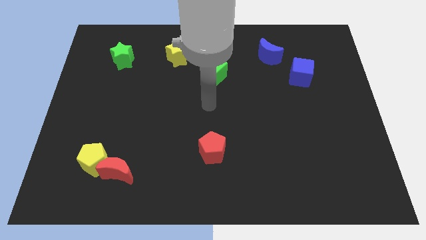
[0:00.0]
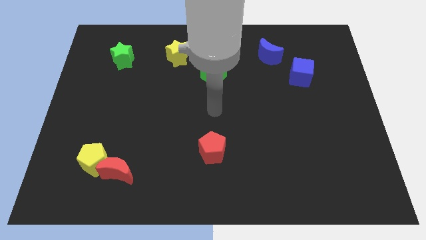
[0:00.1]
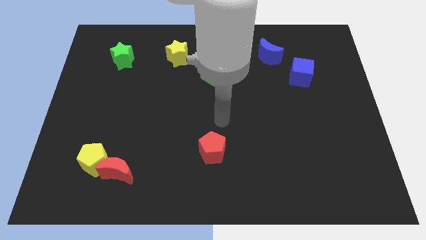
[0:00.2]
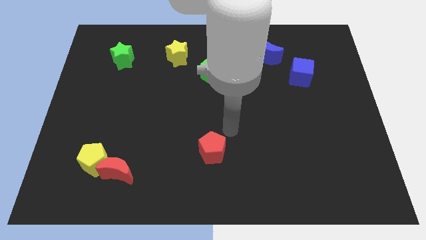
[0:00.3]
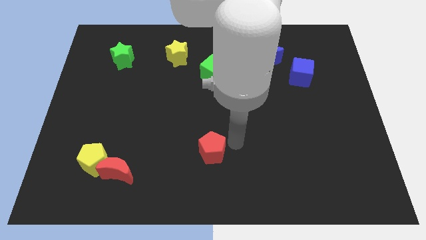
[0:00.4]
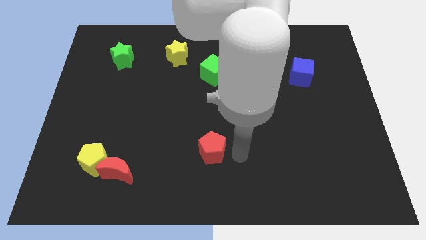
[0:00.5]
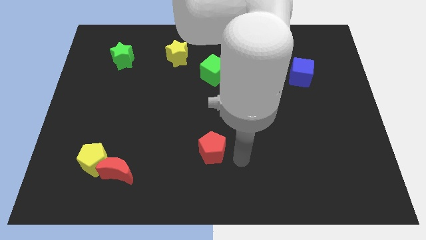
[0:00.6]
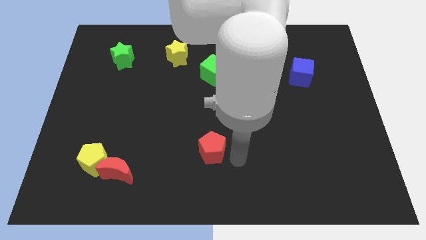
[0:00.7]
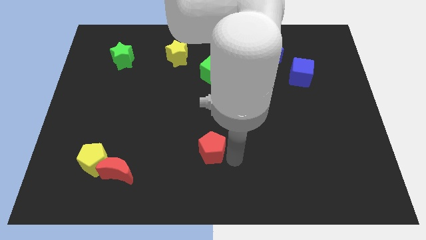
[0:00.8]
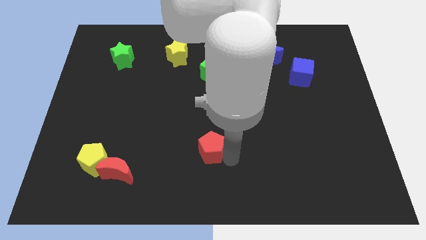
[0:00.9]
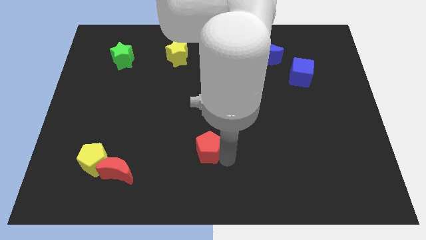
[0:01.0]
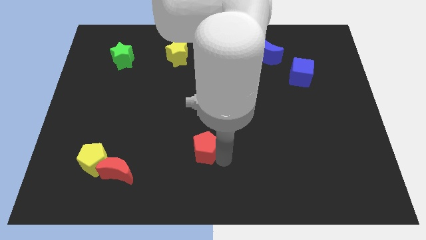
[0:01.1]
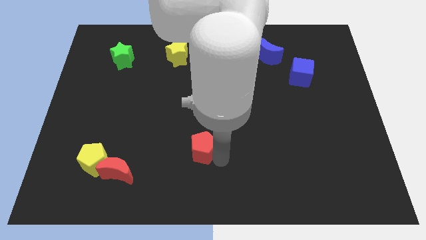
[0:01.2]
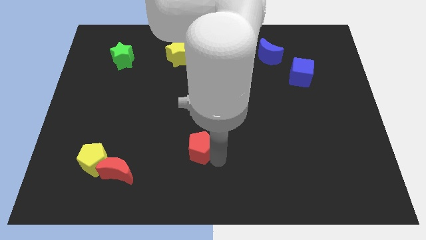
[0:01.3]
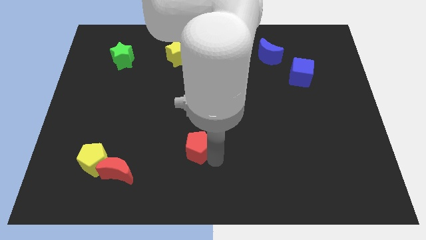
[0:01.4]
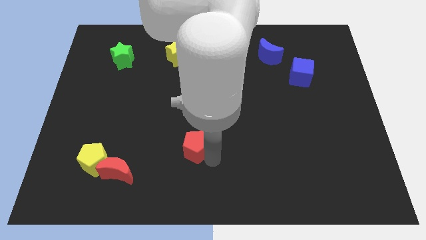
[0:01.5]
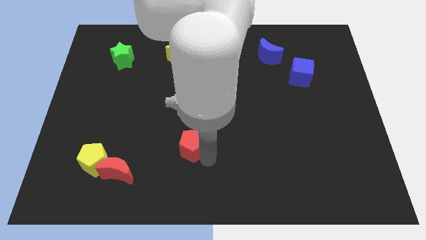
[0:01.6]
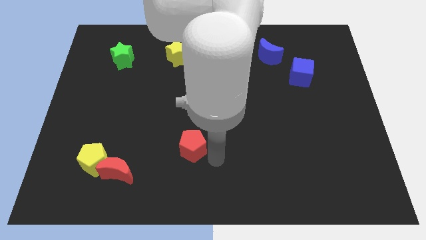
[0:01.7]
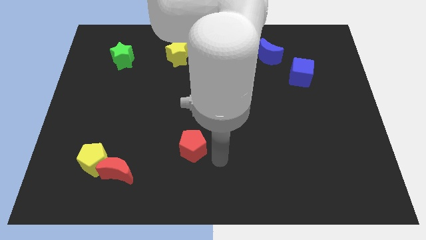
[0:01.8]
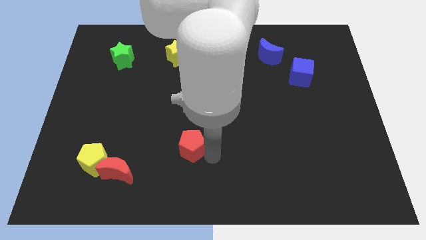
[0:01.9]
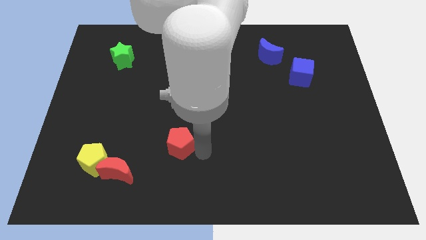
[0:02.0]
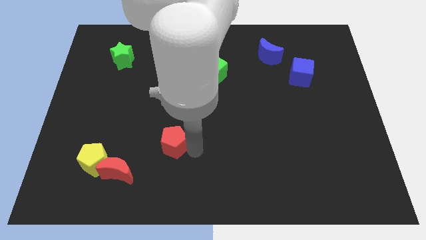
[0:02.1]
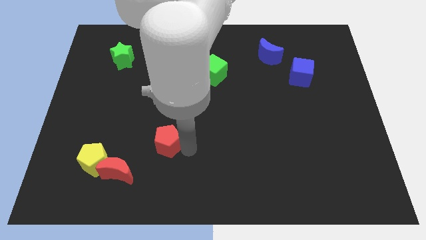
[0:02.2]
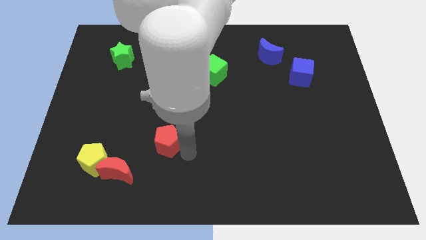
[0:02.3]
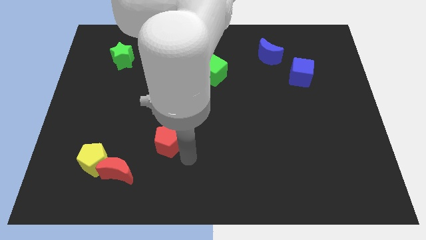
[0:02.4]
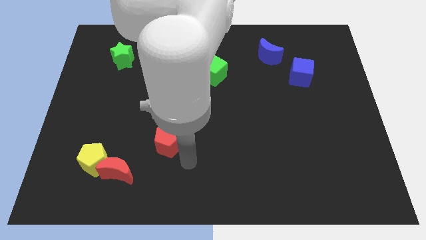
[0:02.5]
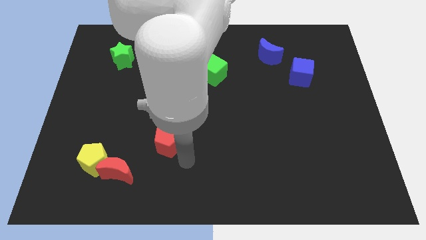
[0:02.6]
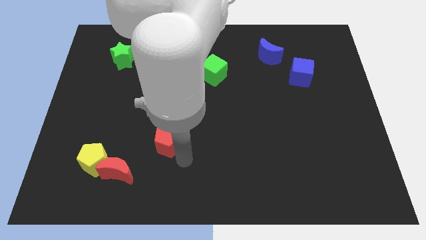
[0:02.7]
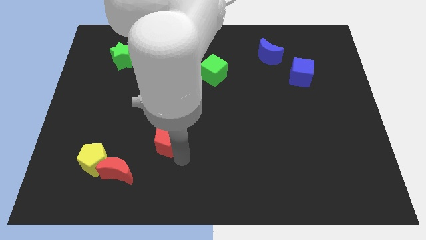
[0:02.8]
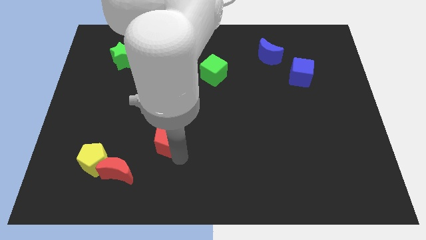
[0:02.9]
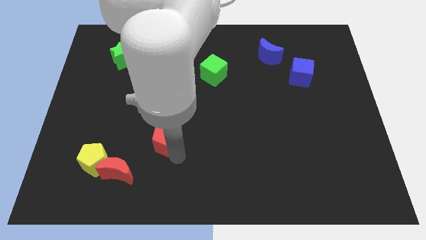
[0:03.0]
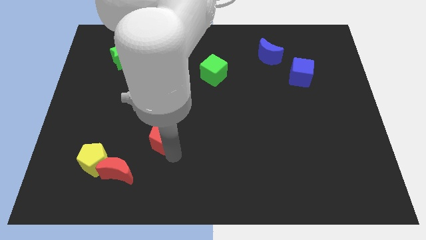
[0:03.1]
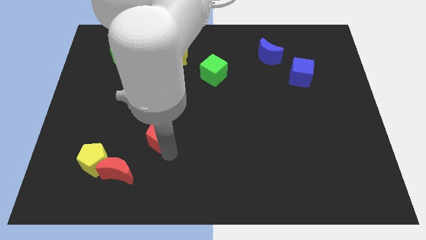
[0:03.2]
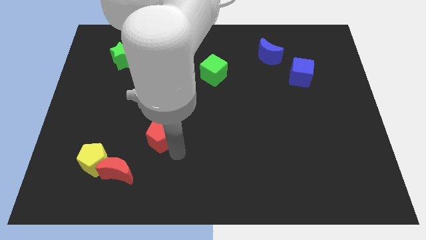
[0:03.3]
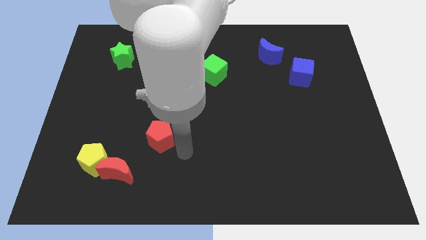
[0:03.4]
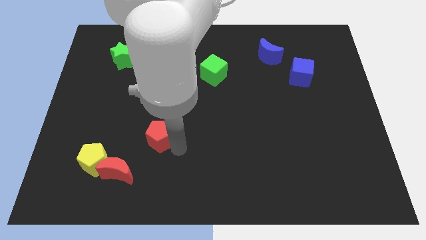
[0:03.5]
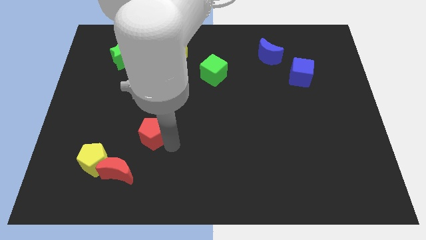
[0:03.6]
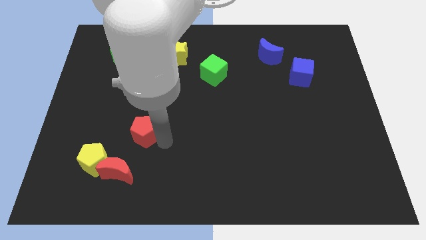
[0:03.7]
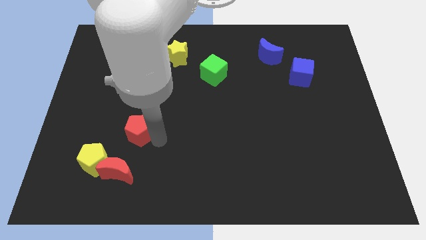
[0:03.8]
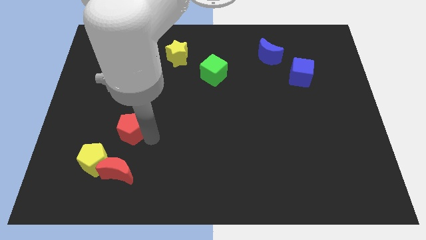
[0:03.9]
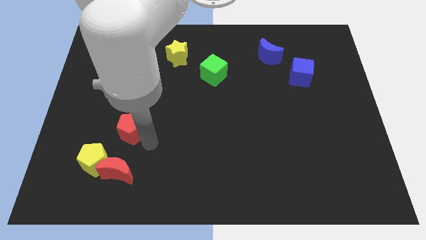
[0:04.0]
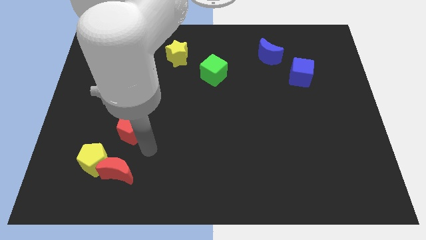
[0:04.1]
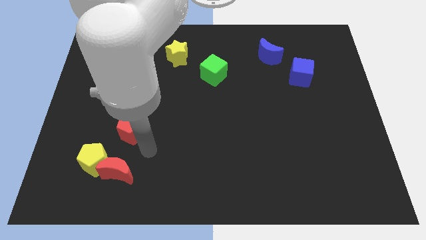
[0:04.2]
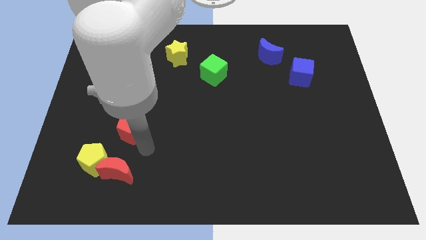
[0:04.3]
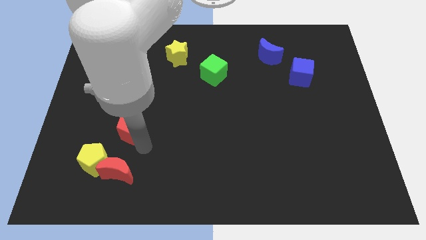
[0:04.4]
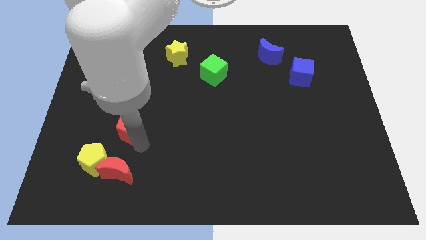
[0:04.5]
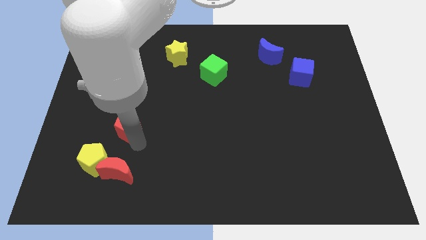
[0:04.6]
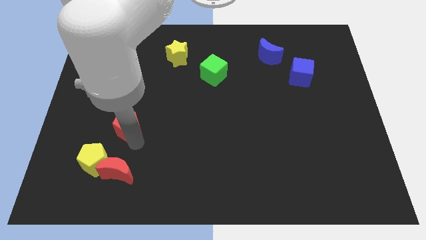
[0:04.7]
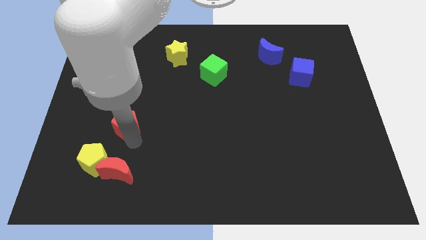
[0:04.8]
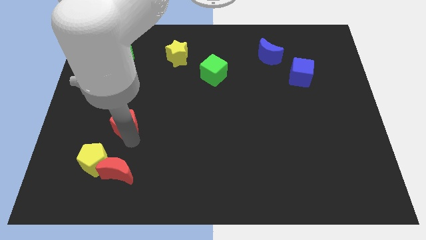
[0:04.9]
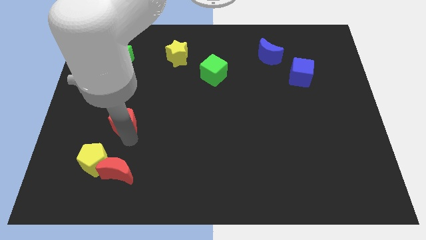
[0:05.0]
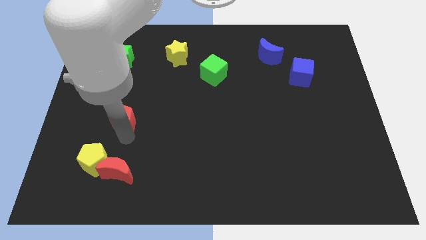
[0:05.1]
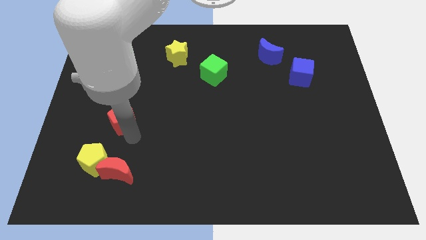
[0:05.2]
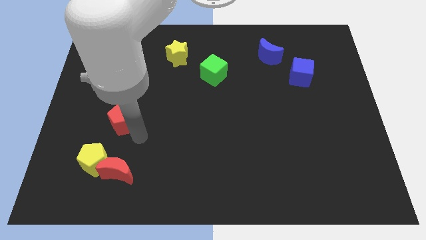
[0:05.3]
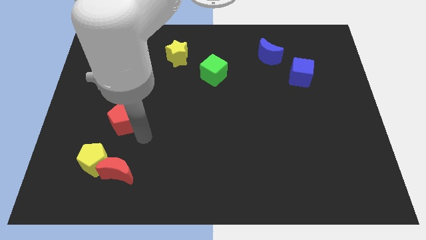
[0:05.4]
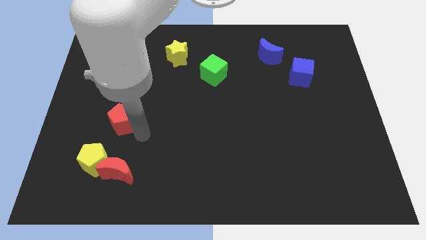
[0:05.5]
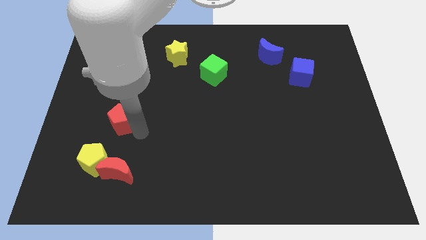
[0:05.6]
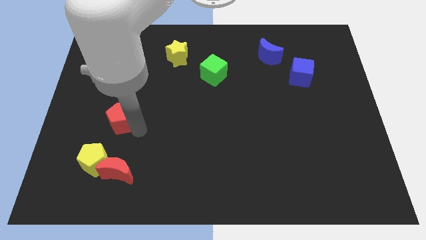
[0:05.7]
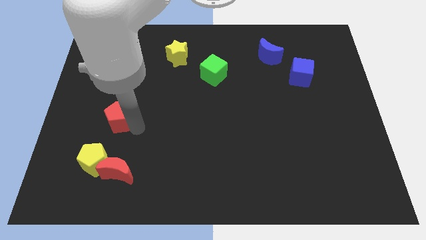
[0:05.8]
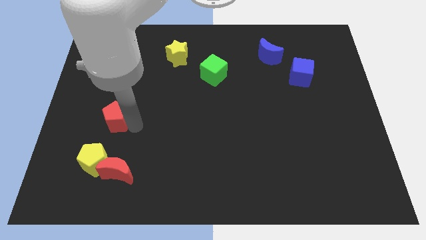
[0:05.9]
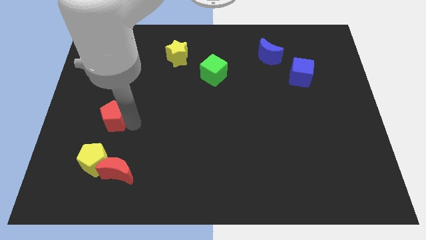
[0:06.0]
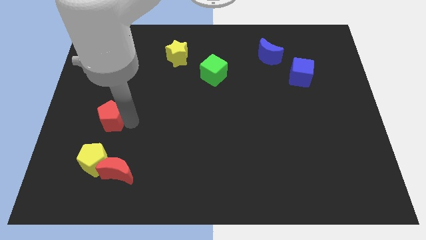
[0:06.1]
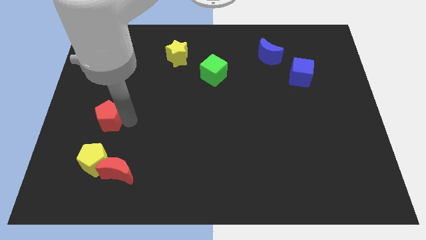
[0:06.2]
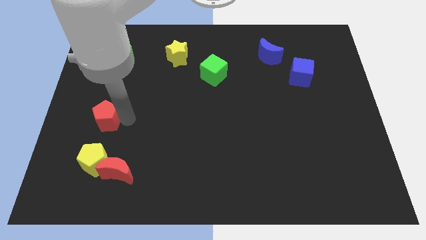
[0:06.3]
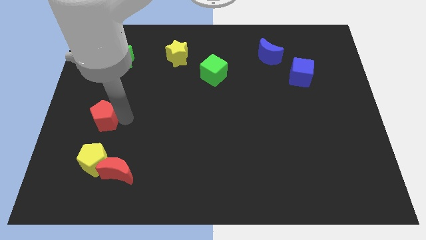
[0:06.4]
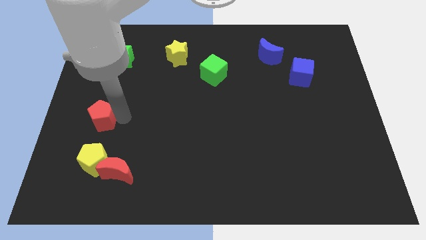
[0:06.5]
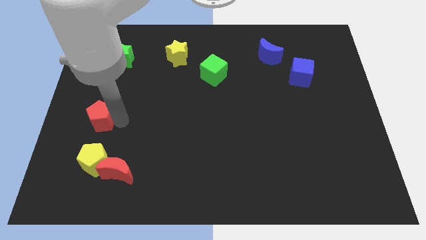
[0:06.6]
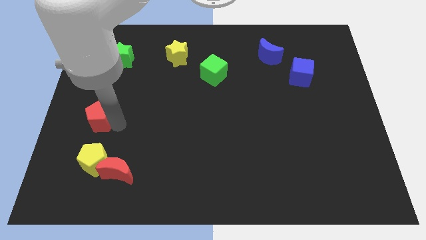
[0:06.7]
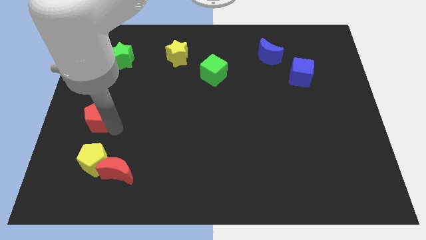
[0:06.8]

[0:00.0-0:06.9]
put the red pentagon to the left side

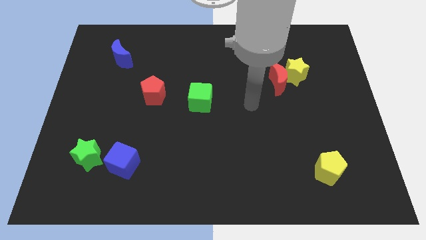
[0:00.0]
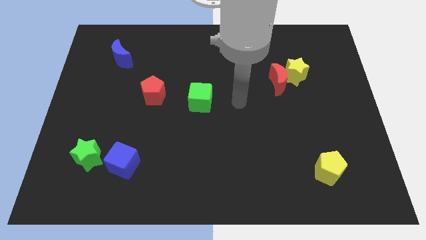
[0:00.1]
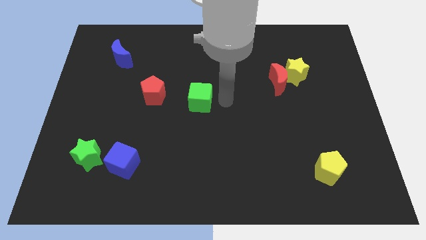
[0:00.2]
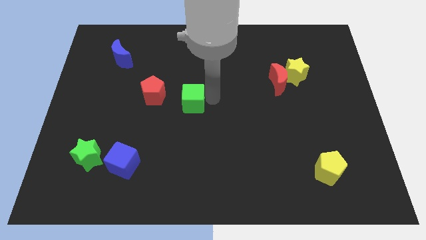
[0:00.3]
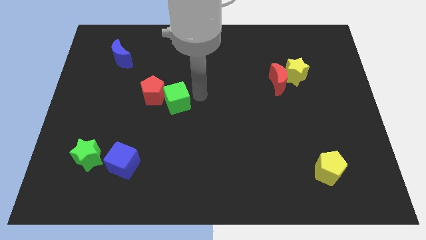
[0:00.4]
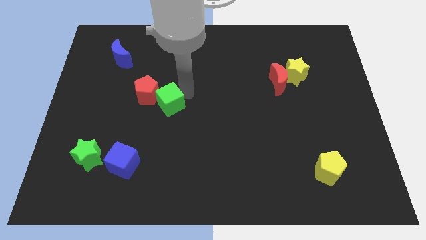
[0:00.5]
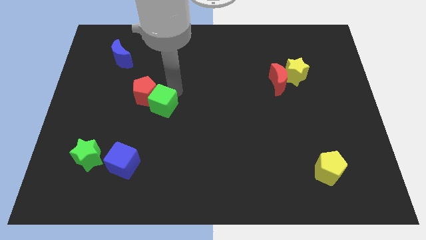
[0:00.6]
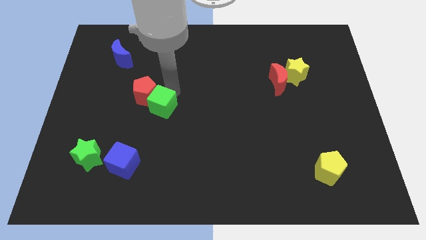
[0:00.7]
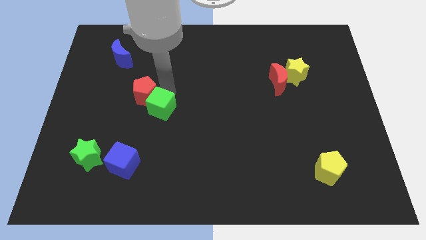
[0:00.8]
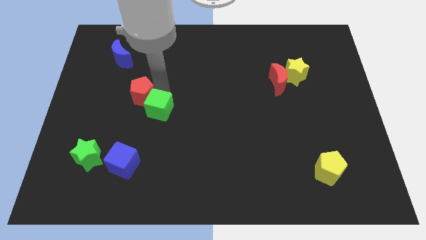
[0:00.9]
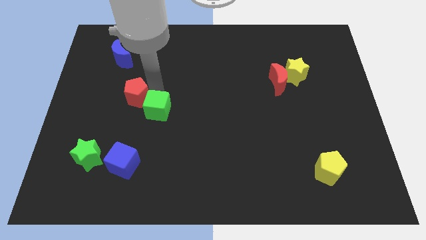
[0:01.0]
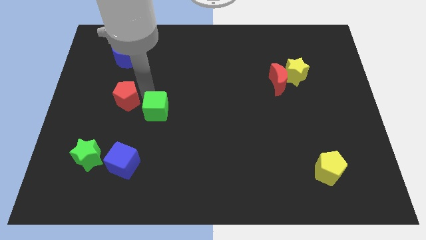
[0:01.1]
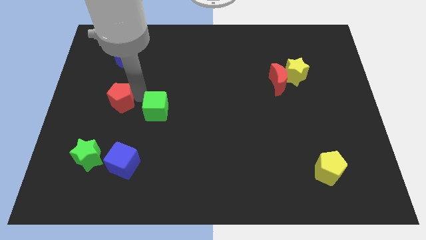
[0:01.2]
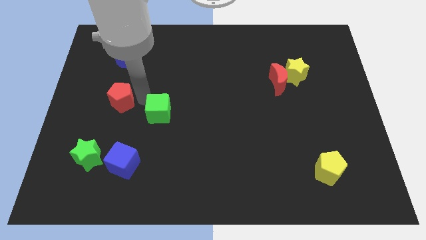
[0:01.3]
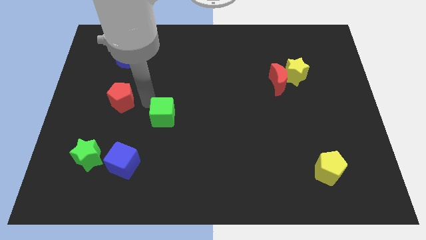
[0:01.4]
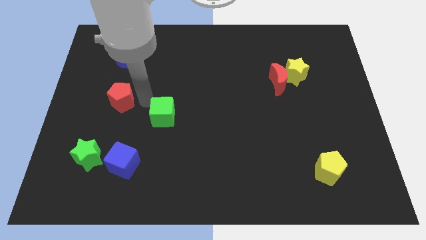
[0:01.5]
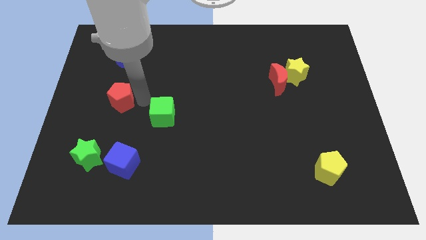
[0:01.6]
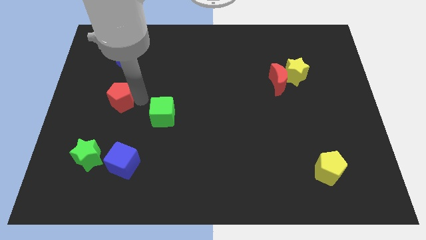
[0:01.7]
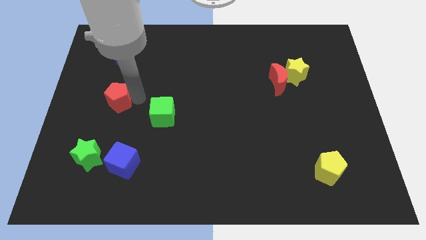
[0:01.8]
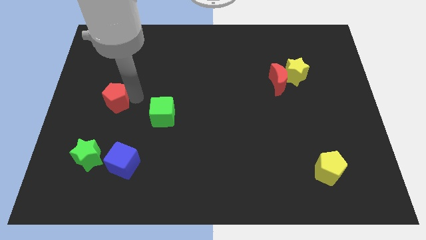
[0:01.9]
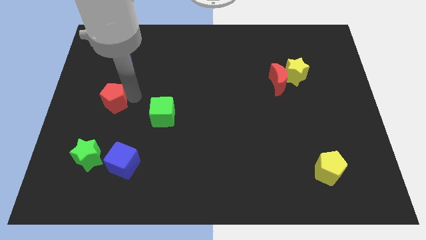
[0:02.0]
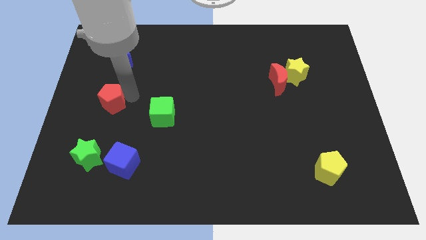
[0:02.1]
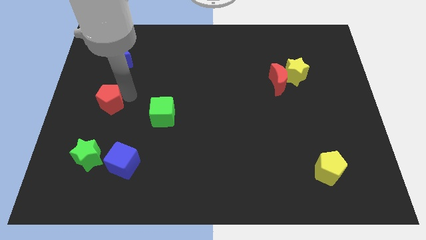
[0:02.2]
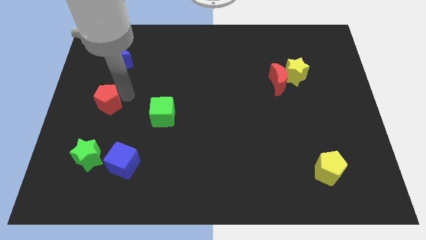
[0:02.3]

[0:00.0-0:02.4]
slide the red pentagon to the center left
